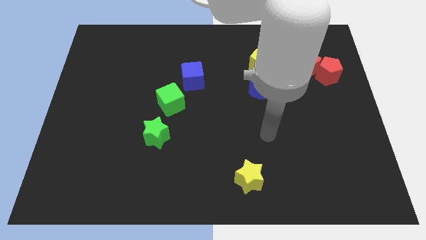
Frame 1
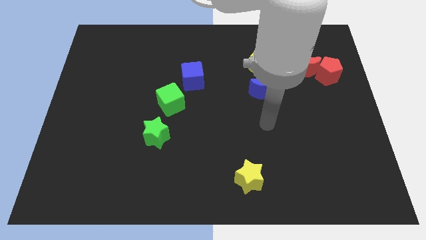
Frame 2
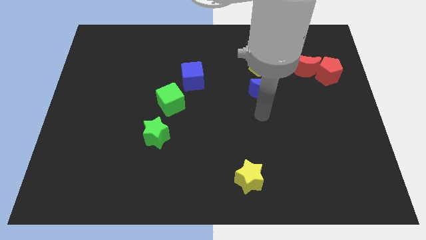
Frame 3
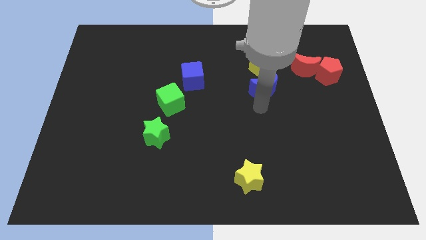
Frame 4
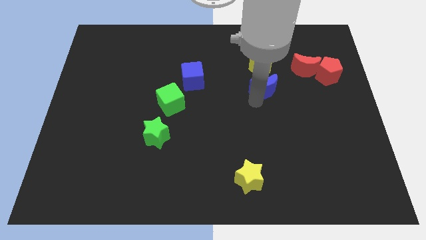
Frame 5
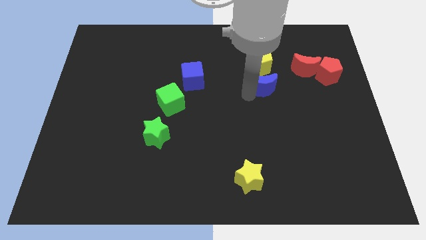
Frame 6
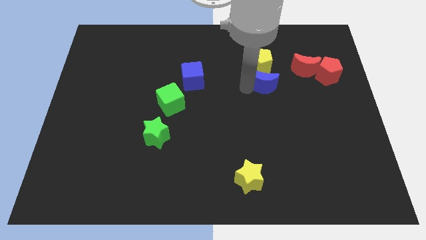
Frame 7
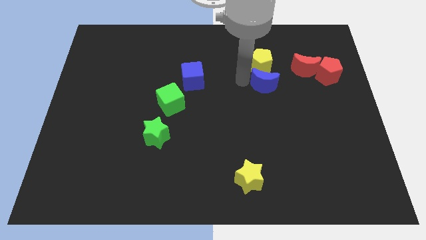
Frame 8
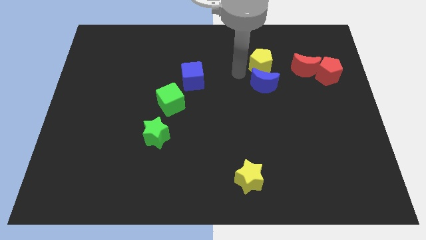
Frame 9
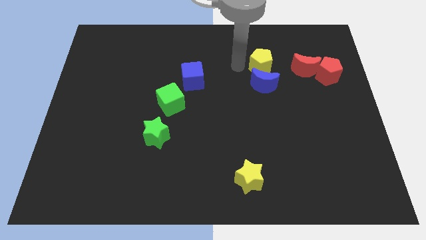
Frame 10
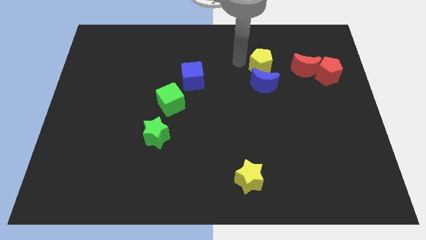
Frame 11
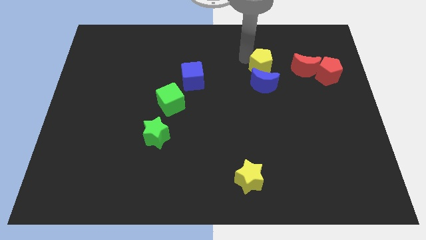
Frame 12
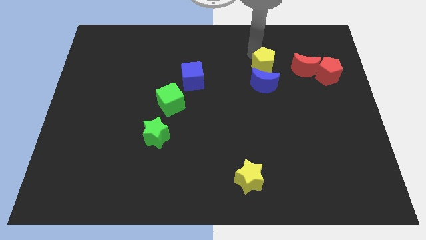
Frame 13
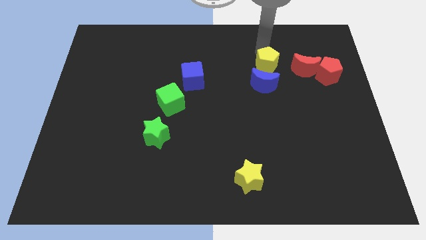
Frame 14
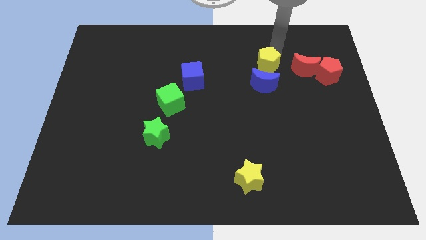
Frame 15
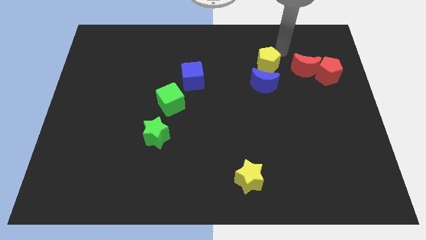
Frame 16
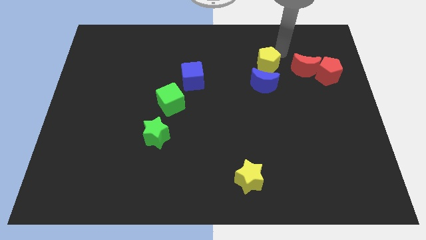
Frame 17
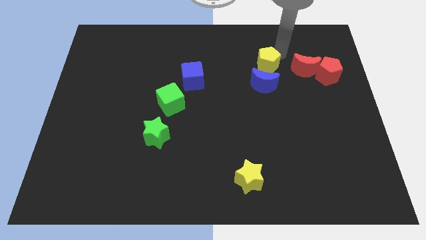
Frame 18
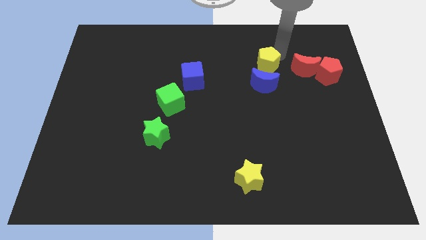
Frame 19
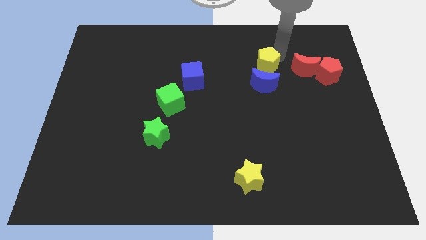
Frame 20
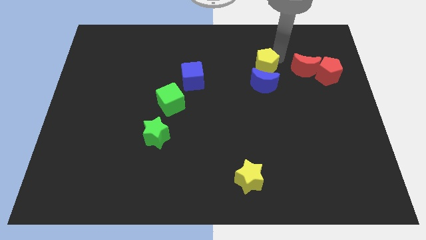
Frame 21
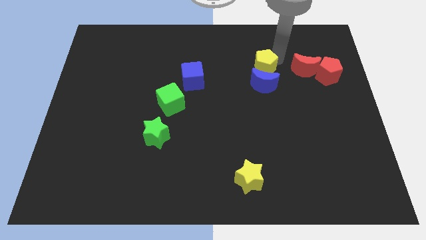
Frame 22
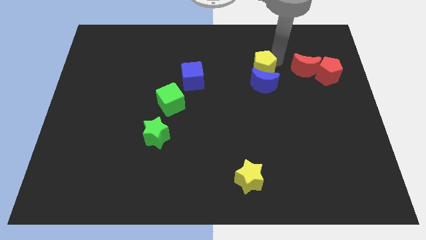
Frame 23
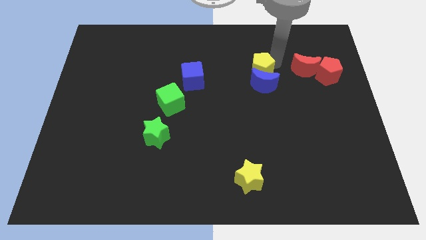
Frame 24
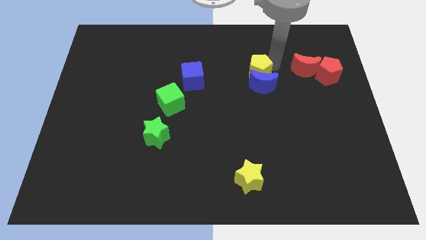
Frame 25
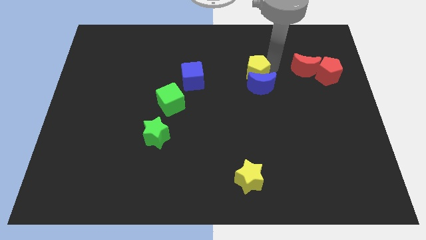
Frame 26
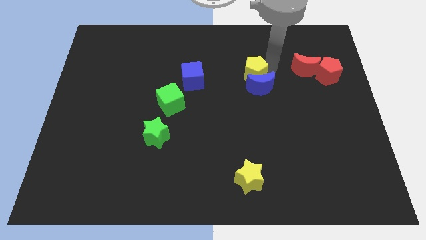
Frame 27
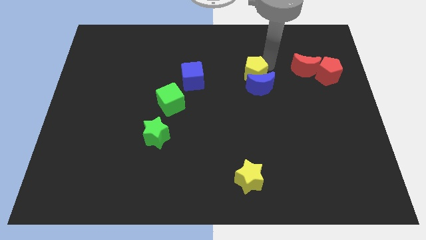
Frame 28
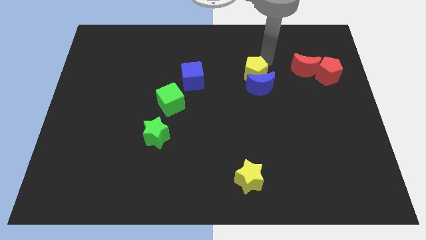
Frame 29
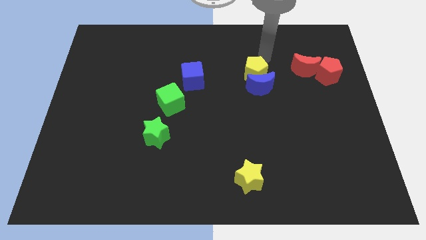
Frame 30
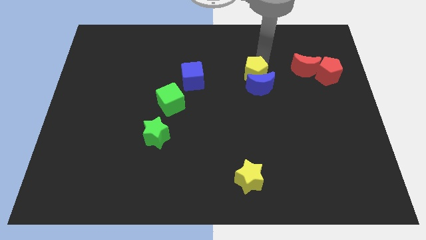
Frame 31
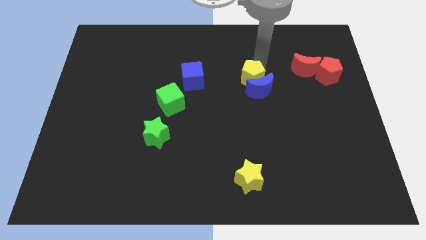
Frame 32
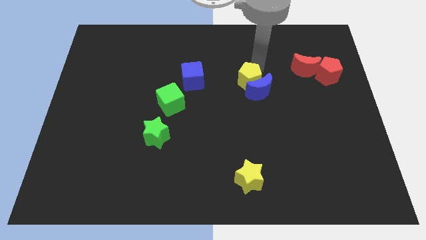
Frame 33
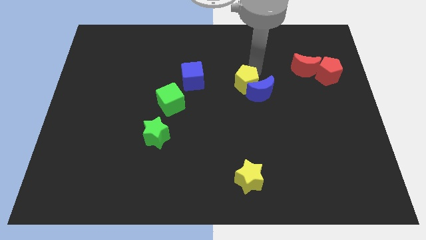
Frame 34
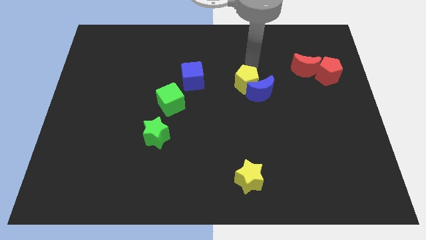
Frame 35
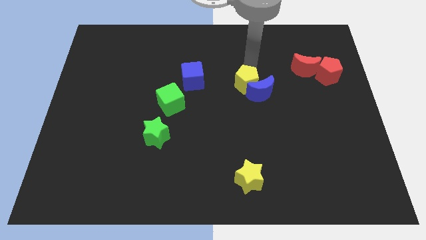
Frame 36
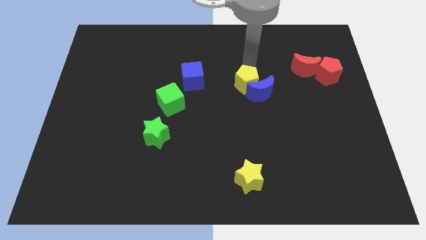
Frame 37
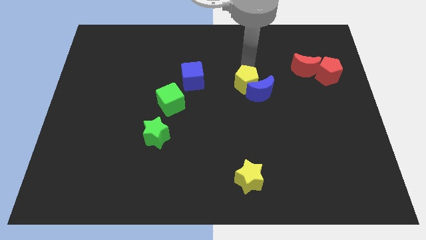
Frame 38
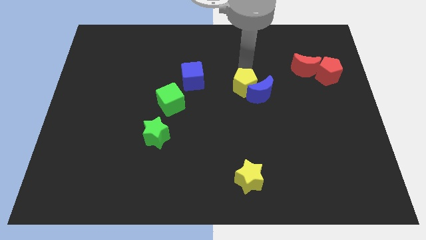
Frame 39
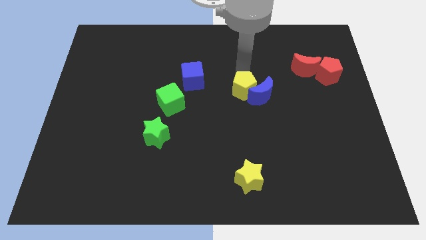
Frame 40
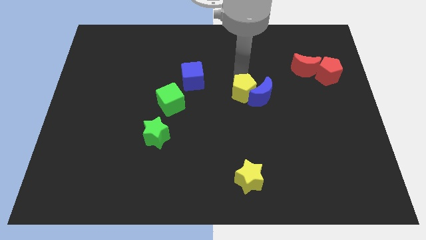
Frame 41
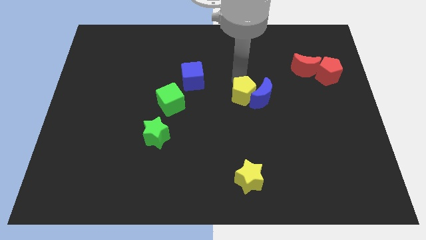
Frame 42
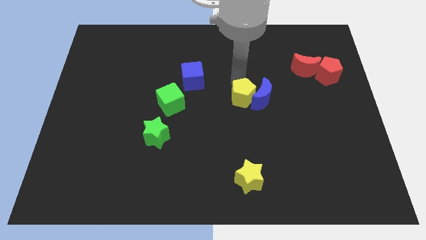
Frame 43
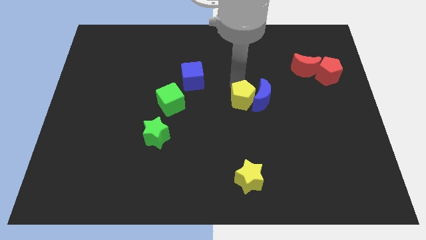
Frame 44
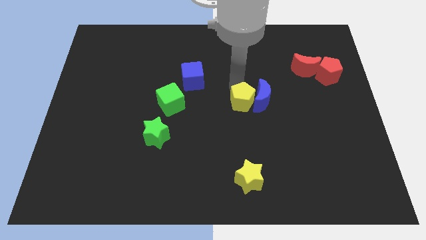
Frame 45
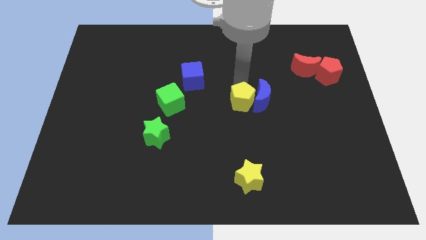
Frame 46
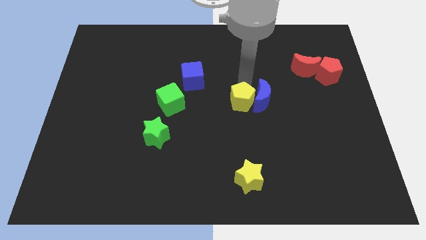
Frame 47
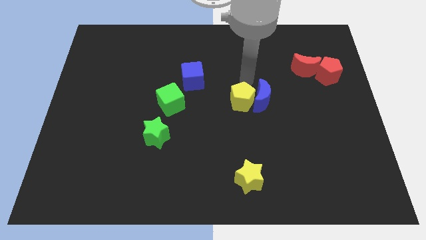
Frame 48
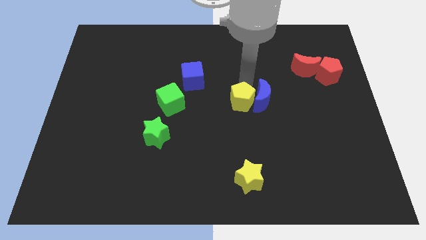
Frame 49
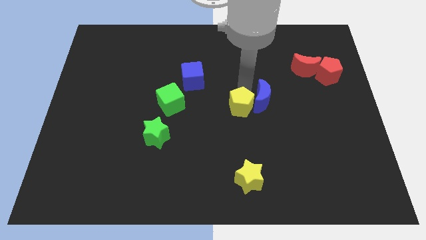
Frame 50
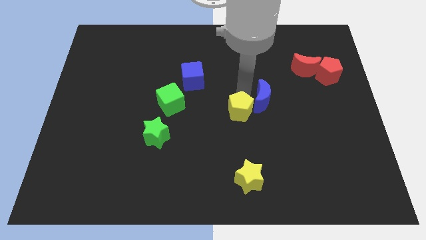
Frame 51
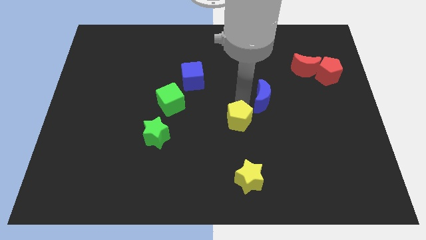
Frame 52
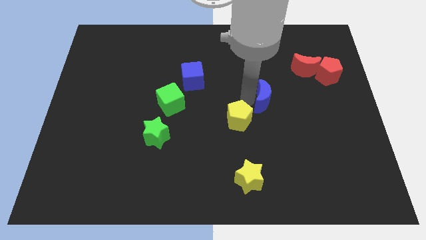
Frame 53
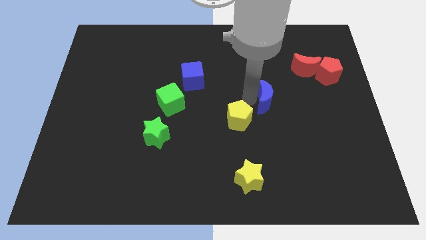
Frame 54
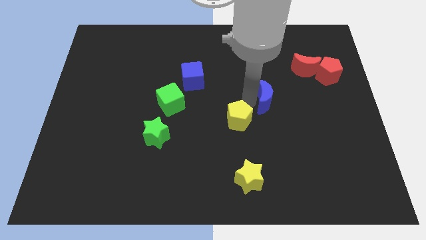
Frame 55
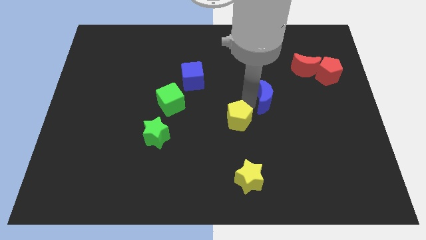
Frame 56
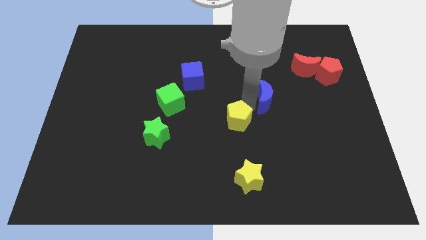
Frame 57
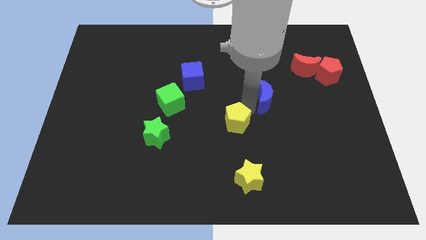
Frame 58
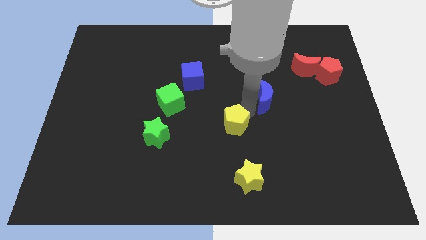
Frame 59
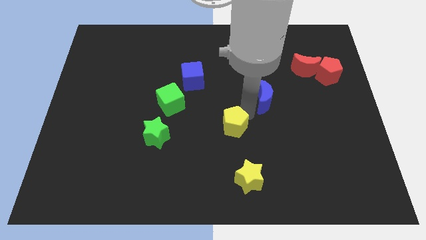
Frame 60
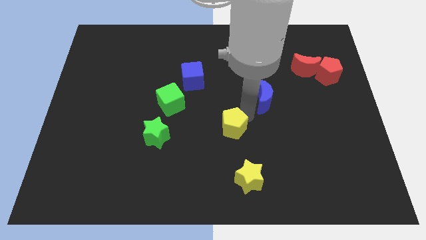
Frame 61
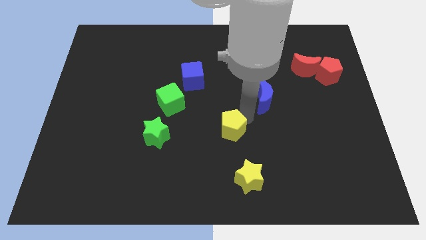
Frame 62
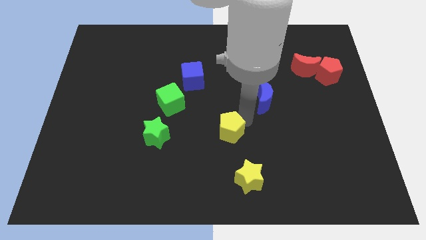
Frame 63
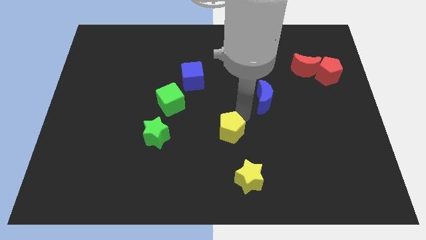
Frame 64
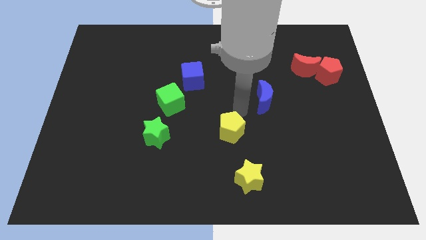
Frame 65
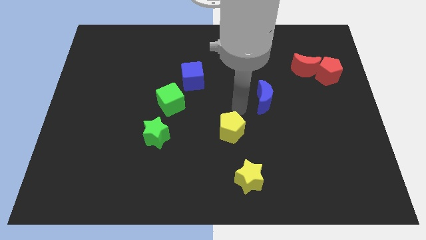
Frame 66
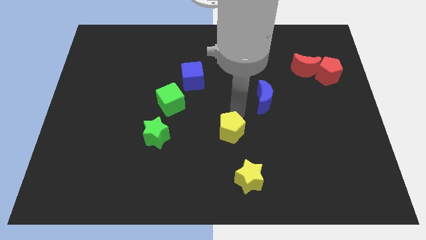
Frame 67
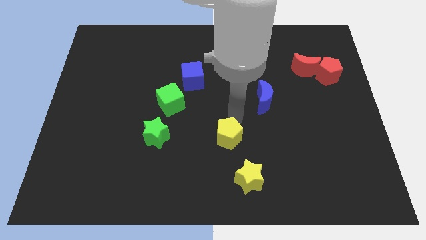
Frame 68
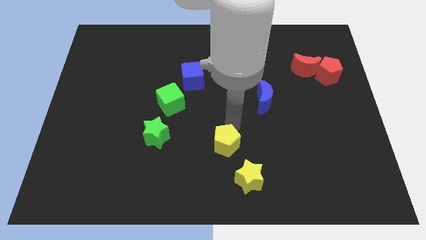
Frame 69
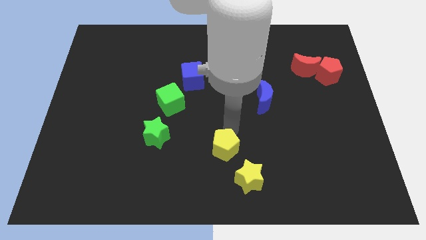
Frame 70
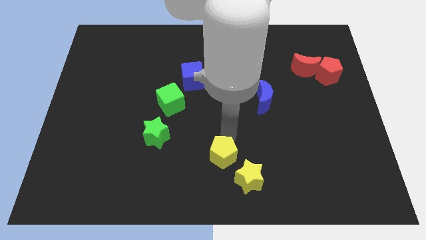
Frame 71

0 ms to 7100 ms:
move the yellow pentagon to the bottom
